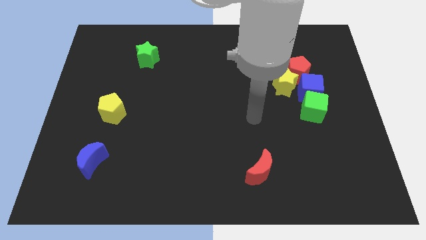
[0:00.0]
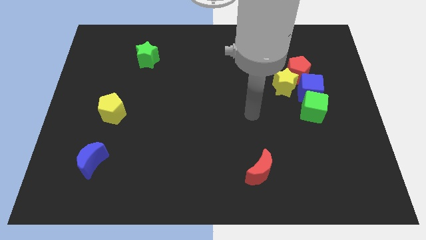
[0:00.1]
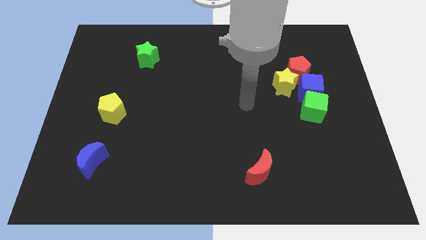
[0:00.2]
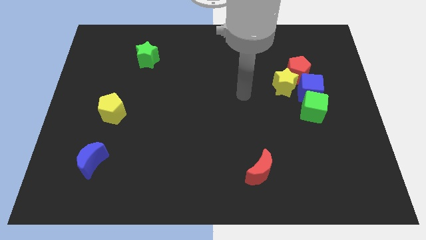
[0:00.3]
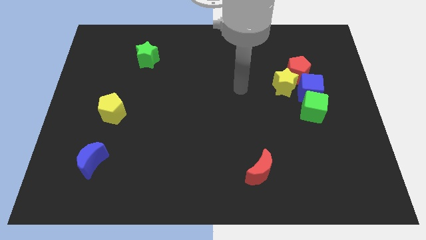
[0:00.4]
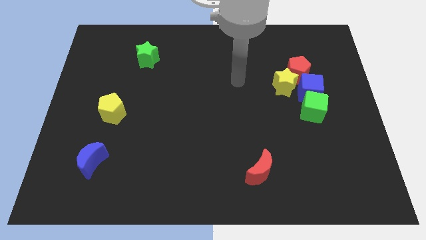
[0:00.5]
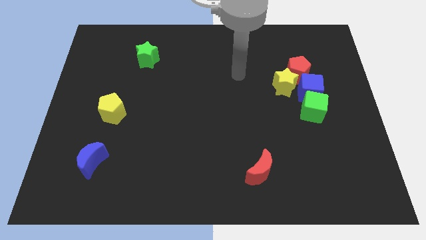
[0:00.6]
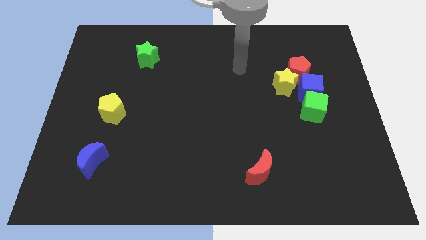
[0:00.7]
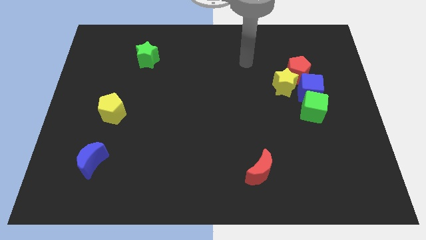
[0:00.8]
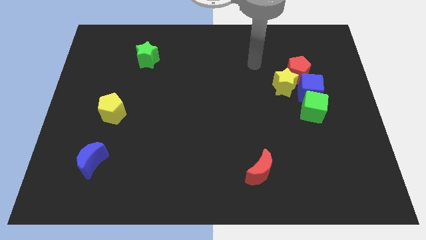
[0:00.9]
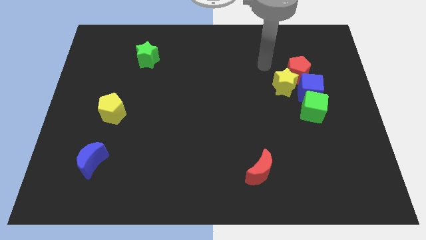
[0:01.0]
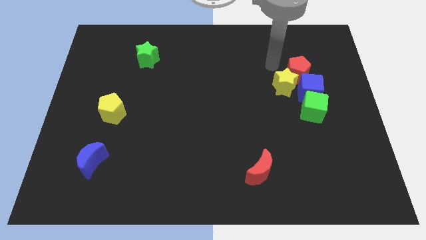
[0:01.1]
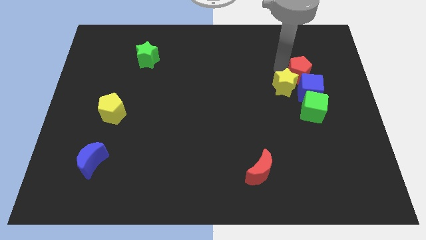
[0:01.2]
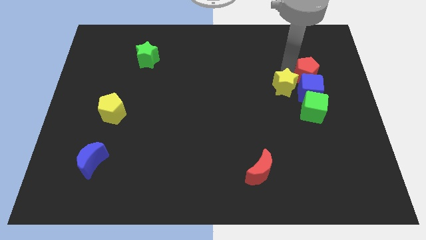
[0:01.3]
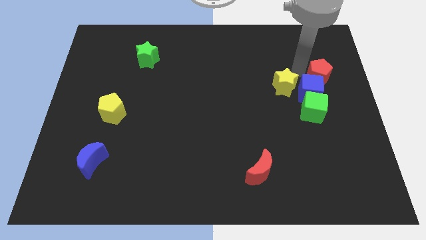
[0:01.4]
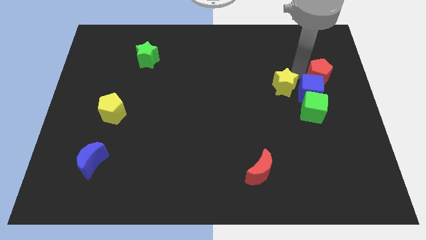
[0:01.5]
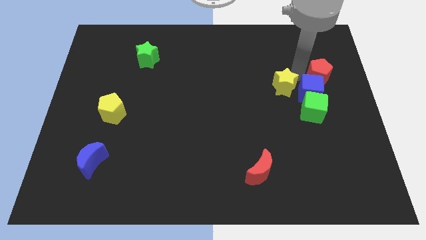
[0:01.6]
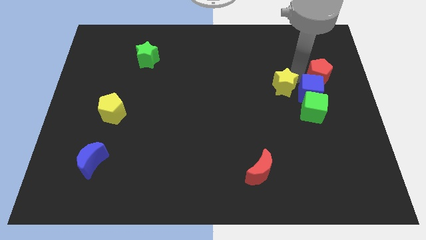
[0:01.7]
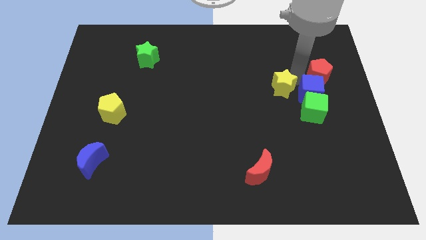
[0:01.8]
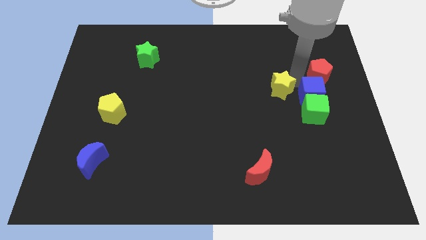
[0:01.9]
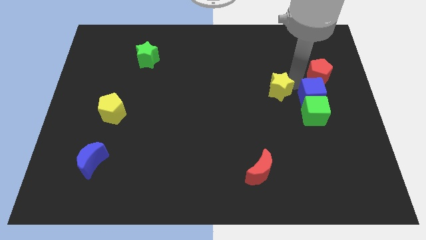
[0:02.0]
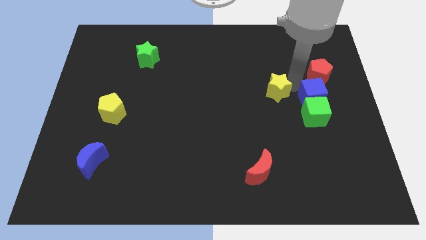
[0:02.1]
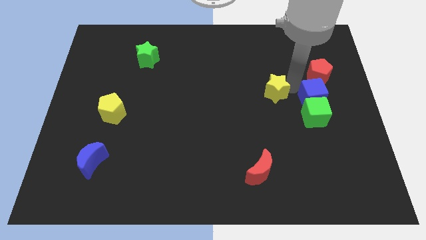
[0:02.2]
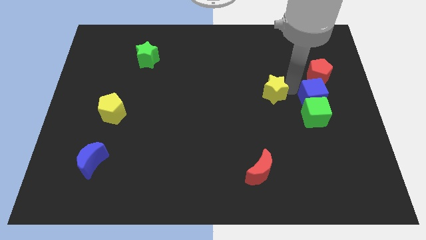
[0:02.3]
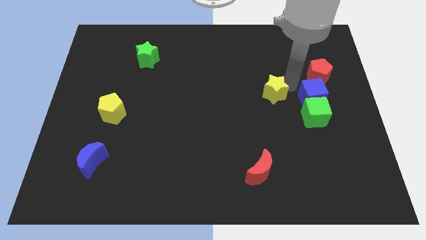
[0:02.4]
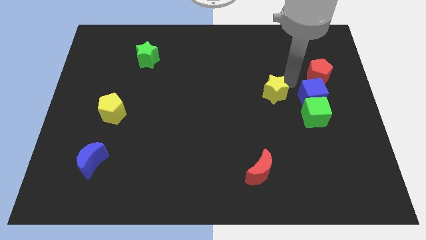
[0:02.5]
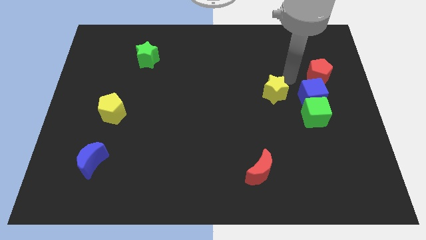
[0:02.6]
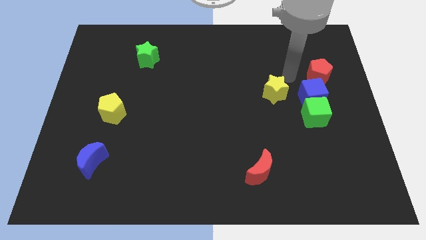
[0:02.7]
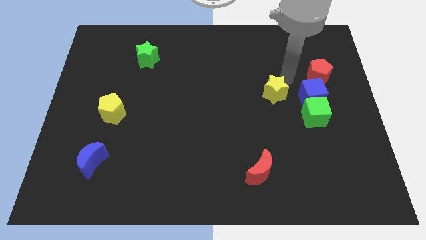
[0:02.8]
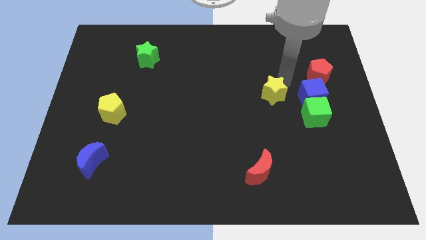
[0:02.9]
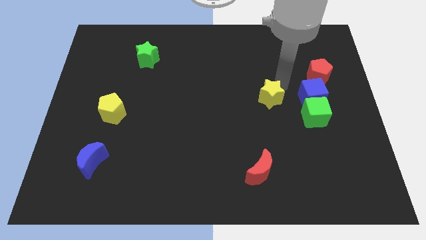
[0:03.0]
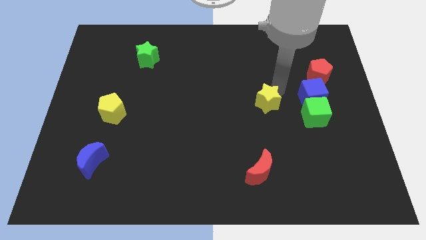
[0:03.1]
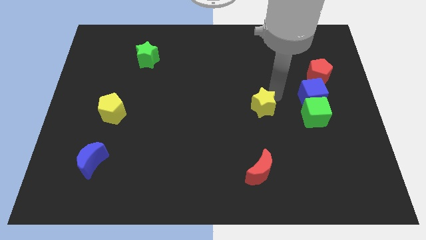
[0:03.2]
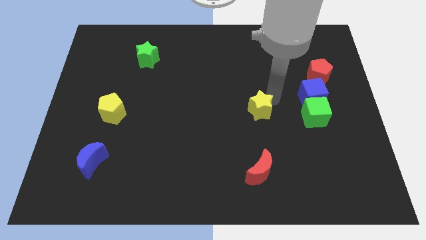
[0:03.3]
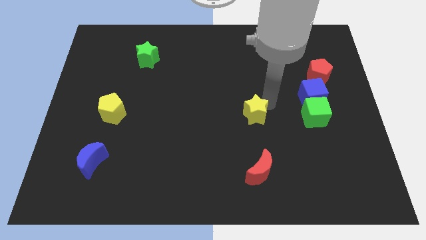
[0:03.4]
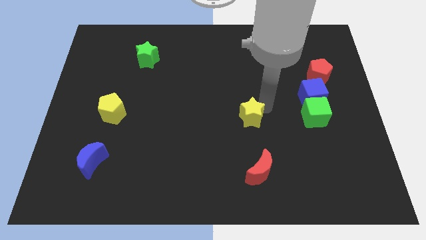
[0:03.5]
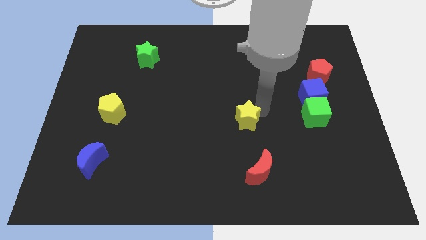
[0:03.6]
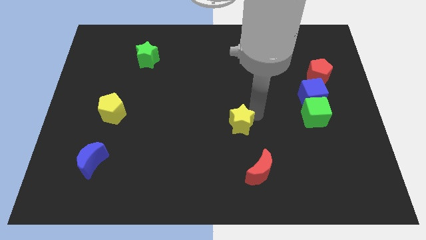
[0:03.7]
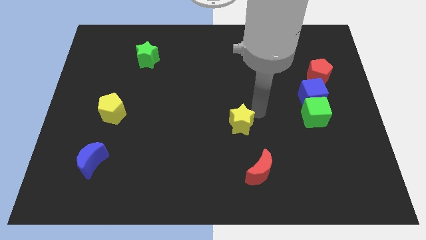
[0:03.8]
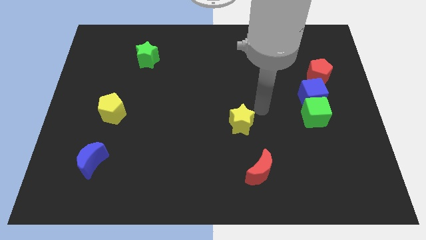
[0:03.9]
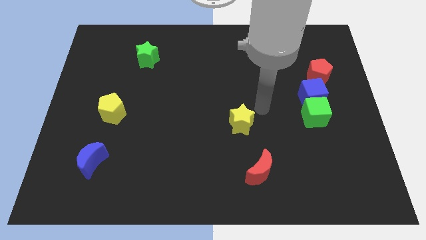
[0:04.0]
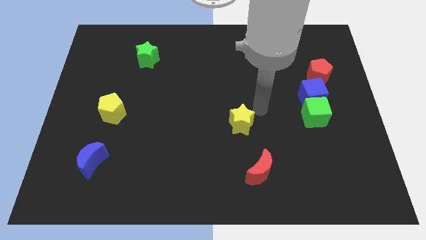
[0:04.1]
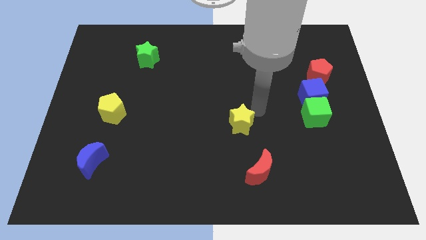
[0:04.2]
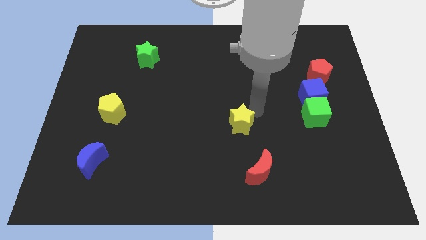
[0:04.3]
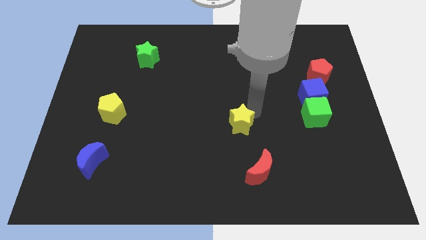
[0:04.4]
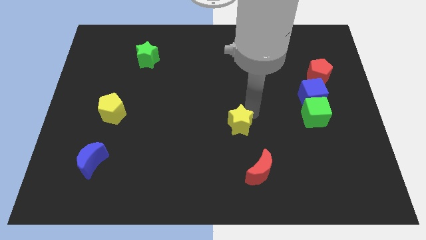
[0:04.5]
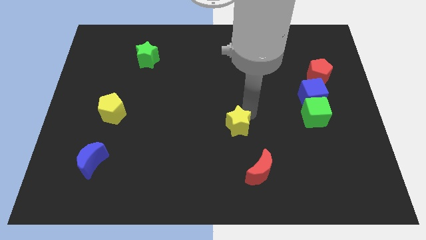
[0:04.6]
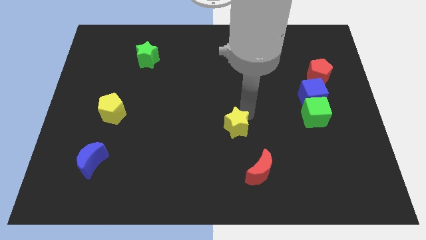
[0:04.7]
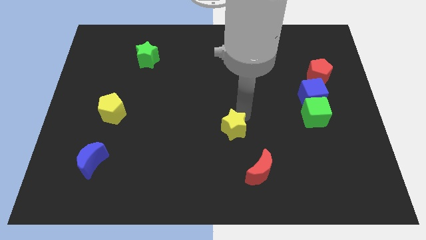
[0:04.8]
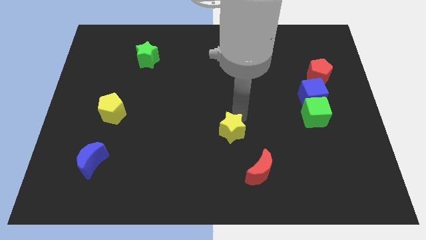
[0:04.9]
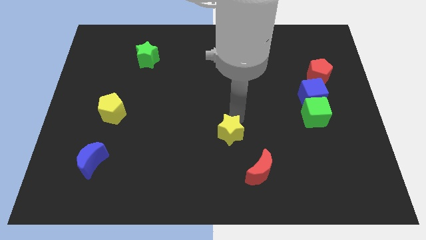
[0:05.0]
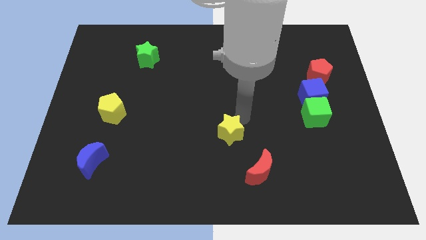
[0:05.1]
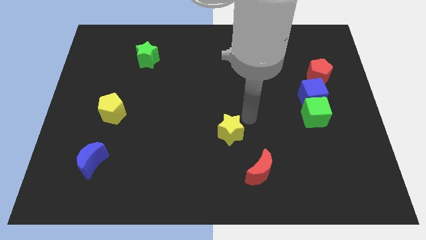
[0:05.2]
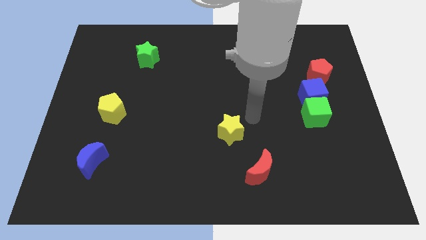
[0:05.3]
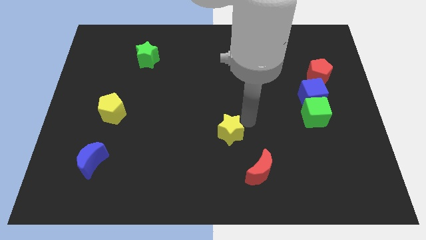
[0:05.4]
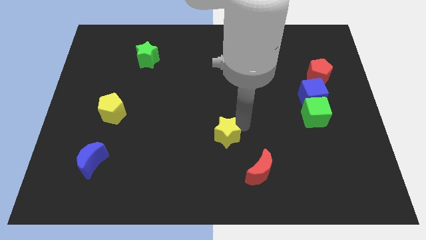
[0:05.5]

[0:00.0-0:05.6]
slide the yellow star downwards and then to the left

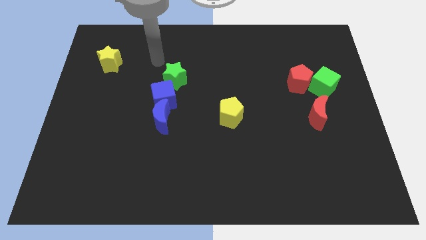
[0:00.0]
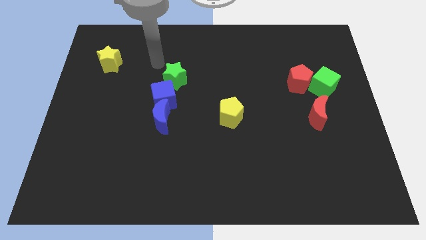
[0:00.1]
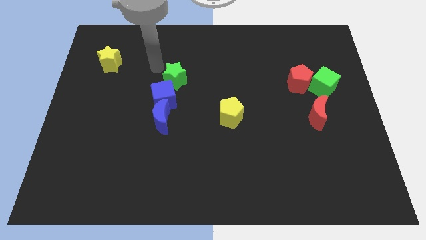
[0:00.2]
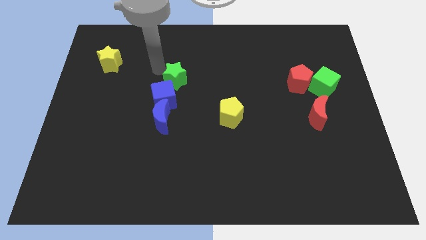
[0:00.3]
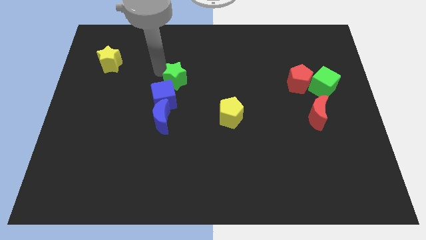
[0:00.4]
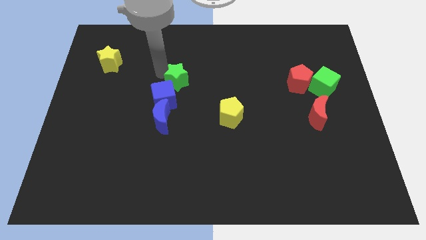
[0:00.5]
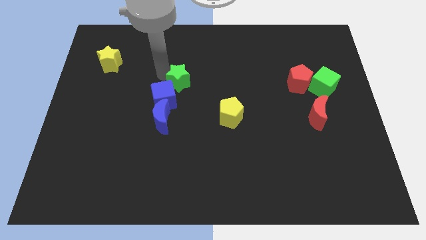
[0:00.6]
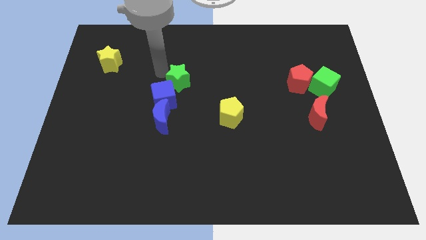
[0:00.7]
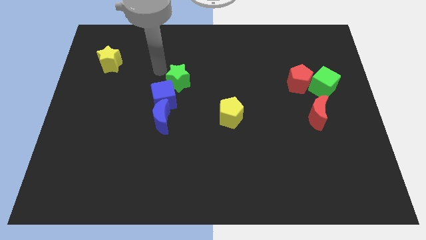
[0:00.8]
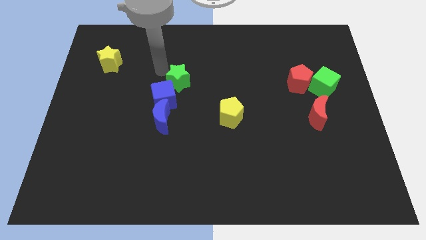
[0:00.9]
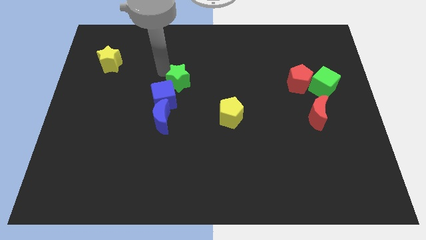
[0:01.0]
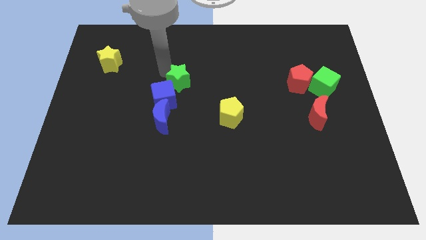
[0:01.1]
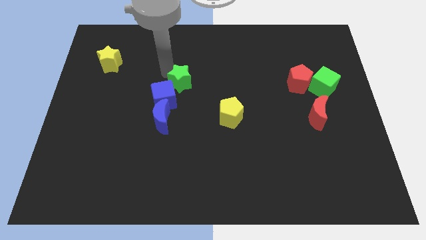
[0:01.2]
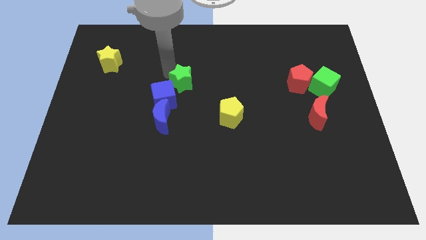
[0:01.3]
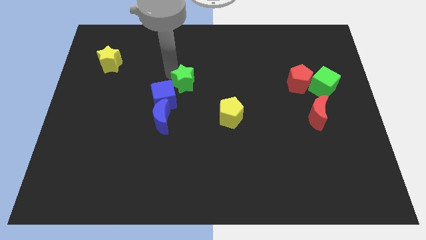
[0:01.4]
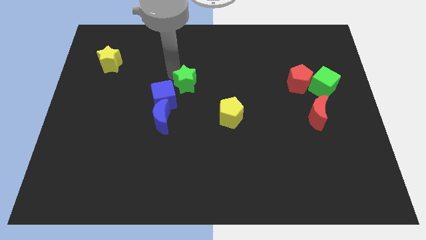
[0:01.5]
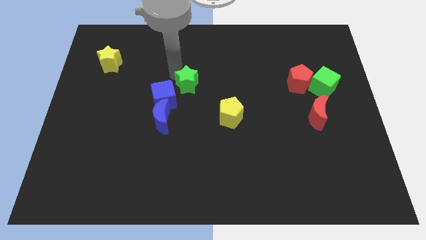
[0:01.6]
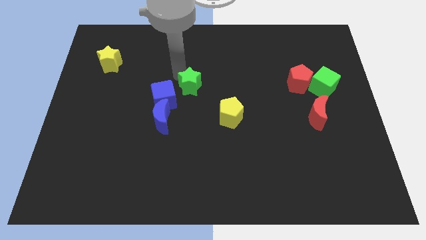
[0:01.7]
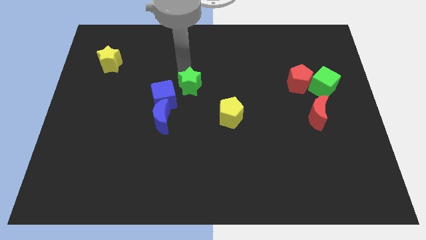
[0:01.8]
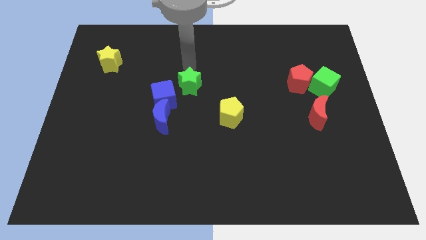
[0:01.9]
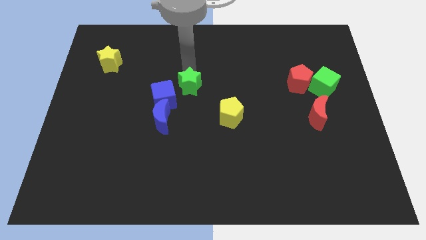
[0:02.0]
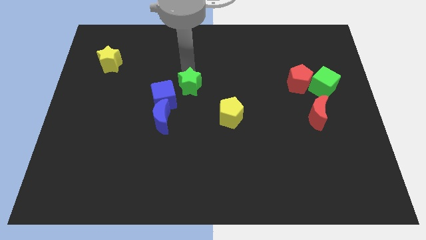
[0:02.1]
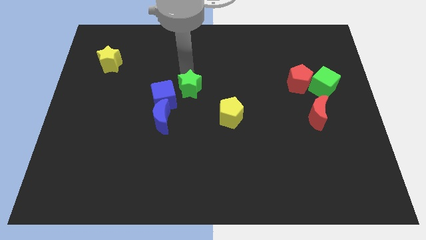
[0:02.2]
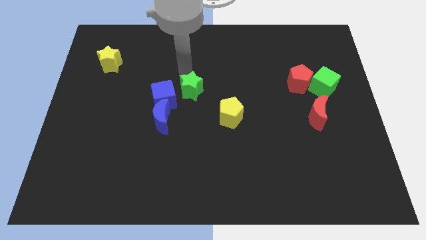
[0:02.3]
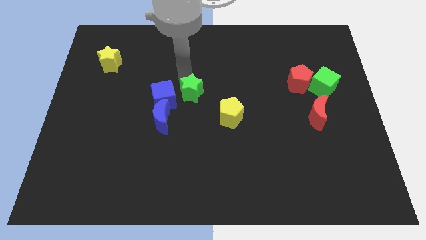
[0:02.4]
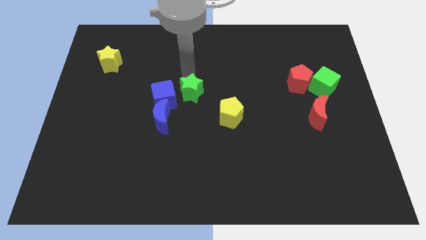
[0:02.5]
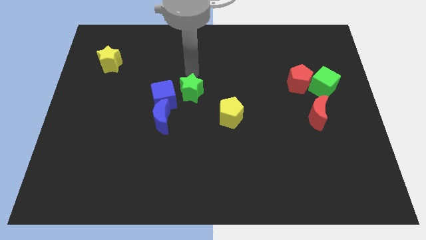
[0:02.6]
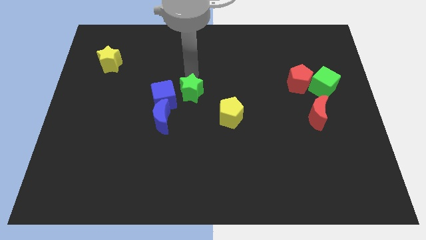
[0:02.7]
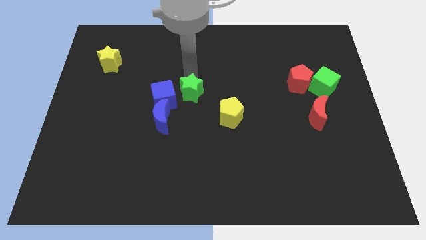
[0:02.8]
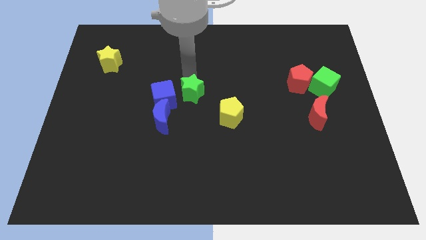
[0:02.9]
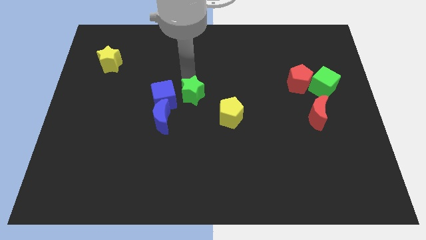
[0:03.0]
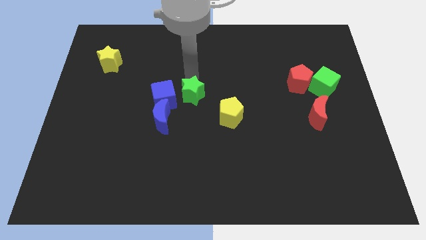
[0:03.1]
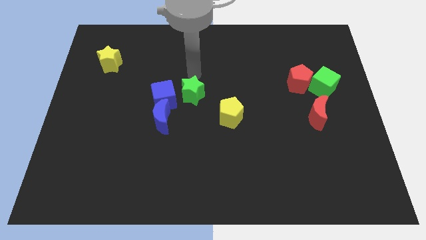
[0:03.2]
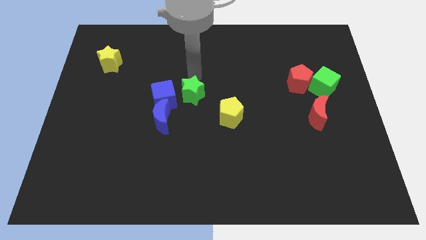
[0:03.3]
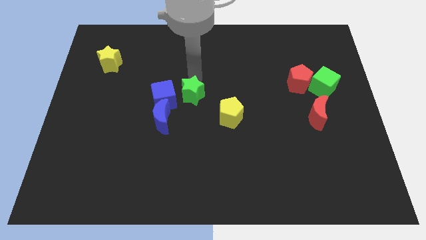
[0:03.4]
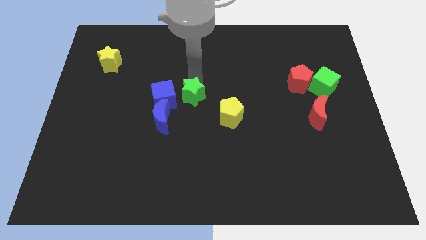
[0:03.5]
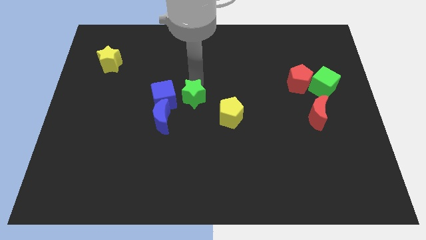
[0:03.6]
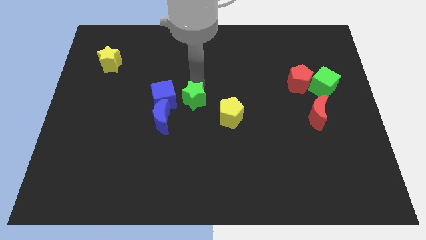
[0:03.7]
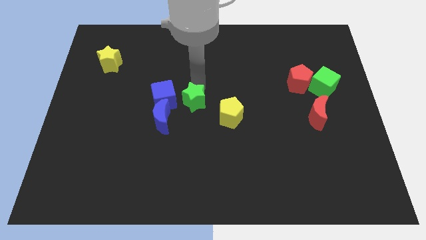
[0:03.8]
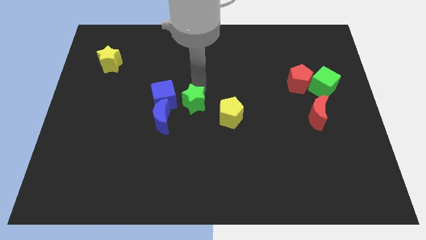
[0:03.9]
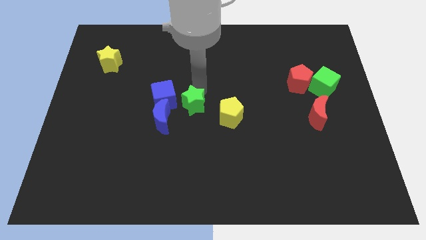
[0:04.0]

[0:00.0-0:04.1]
push the green star down a little bit
